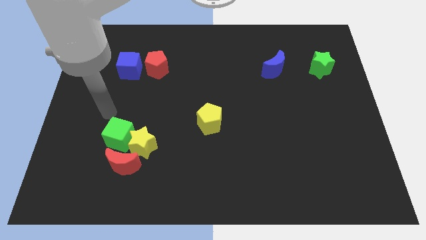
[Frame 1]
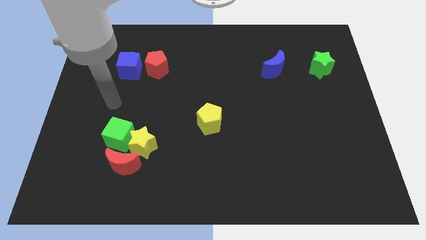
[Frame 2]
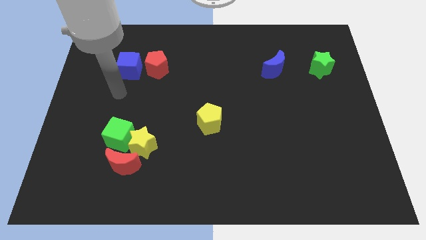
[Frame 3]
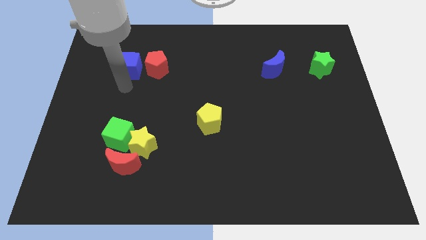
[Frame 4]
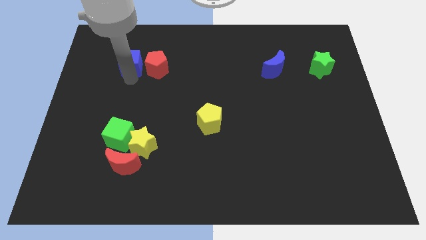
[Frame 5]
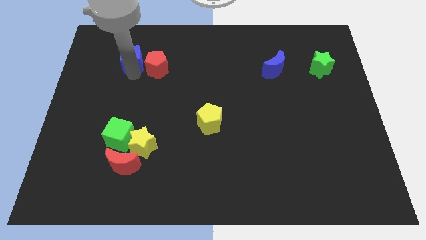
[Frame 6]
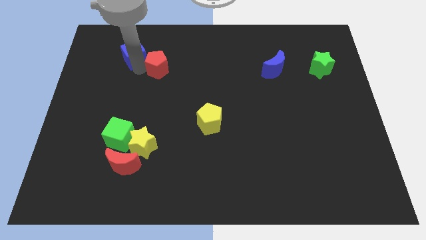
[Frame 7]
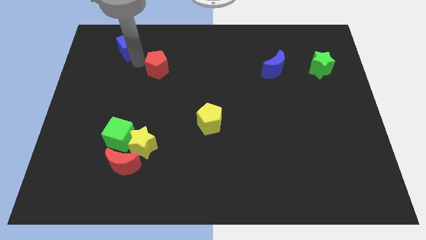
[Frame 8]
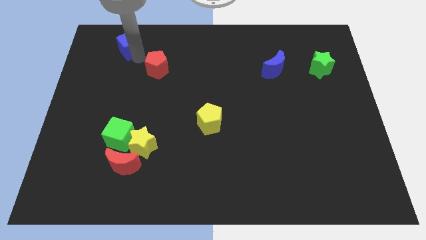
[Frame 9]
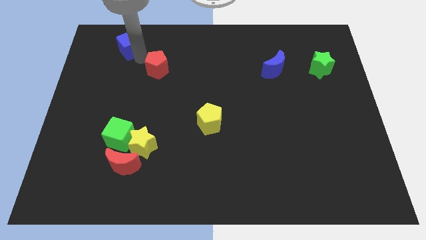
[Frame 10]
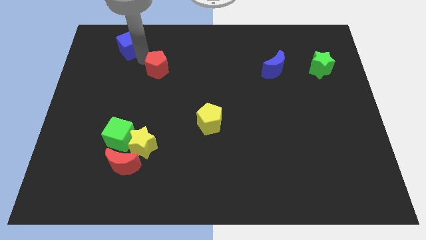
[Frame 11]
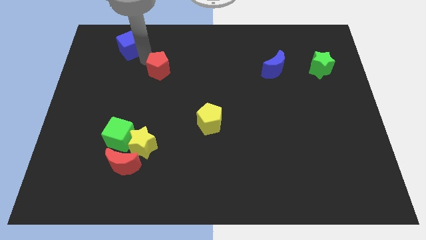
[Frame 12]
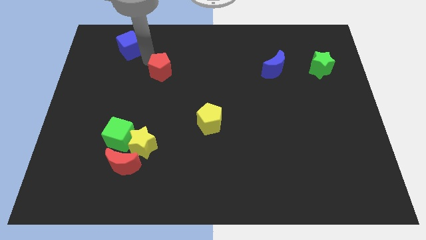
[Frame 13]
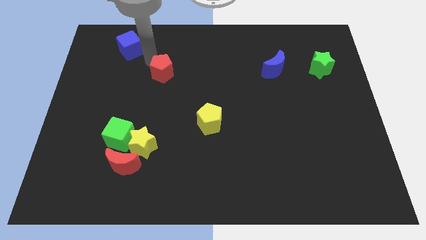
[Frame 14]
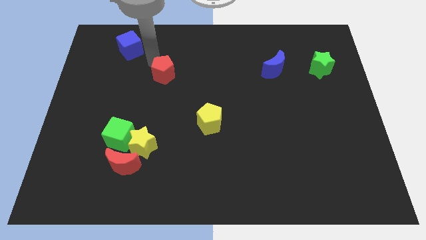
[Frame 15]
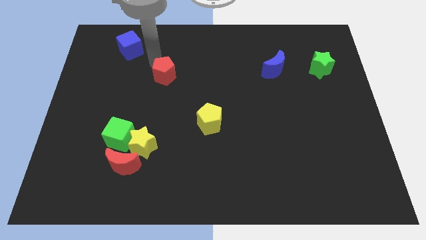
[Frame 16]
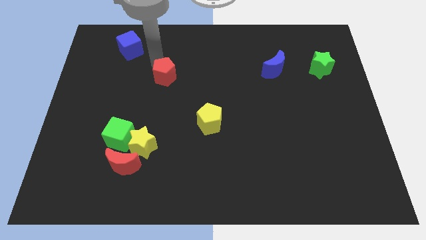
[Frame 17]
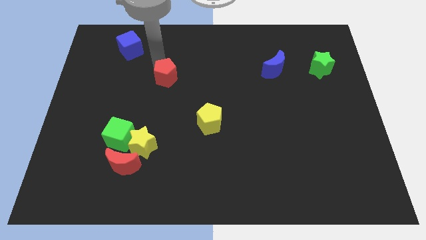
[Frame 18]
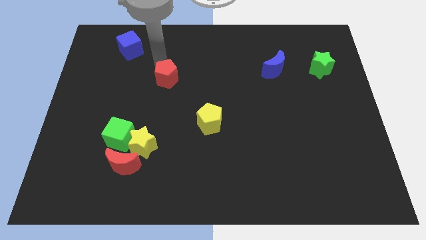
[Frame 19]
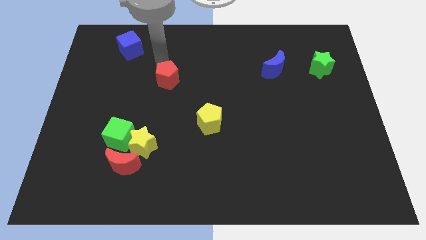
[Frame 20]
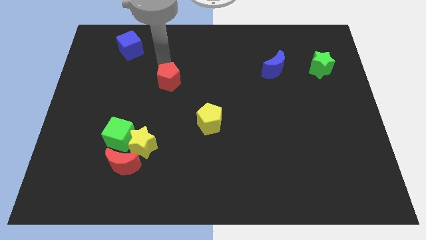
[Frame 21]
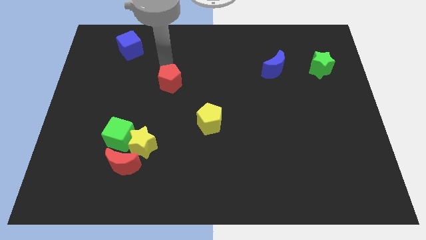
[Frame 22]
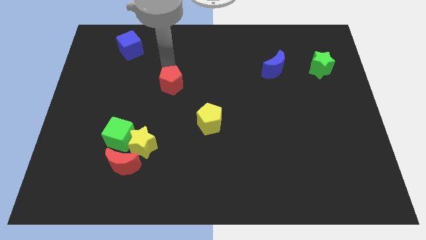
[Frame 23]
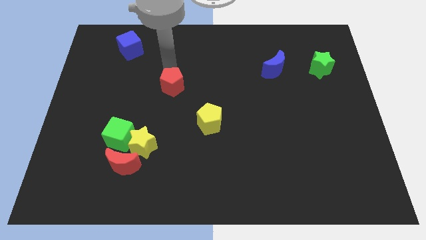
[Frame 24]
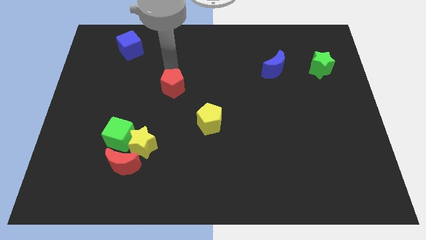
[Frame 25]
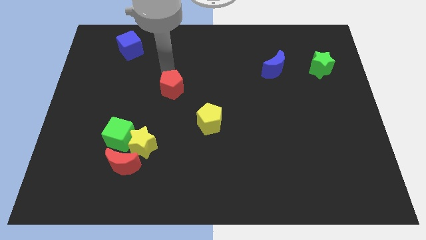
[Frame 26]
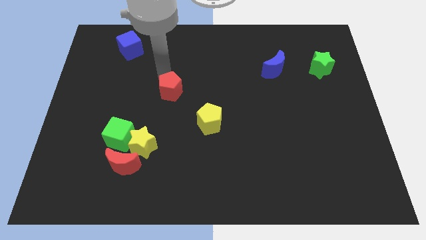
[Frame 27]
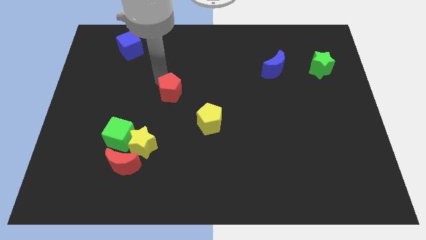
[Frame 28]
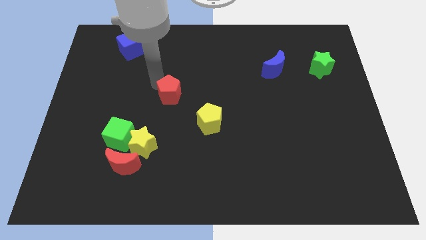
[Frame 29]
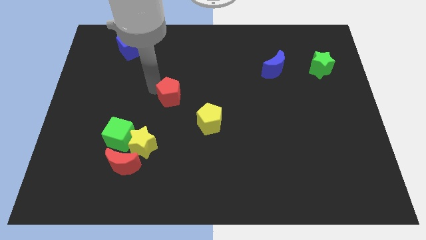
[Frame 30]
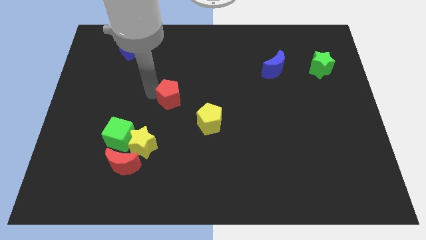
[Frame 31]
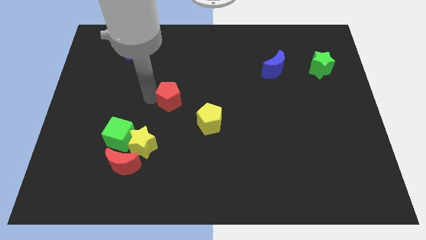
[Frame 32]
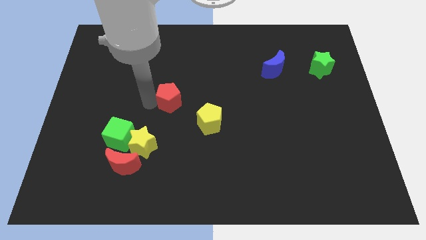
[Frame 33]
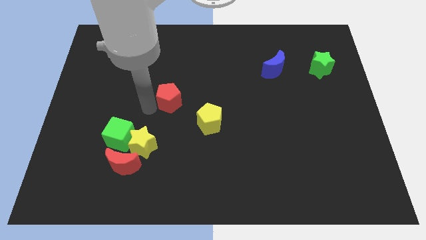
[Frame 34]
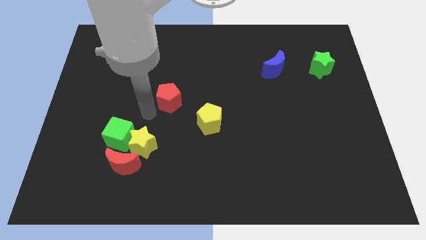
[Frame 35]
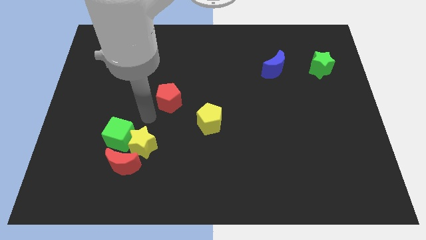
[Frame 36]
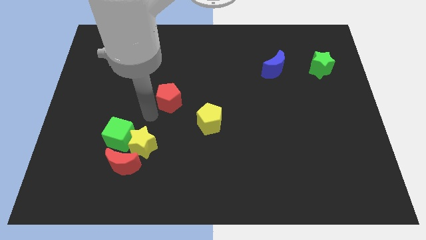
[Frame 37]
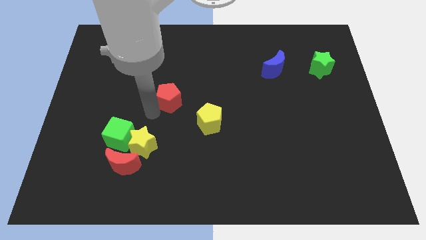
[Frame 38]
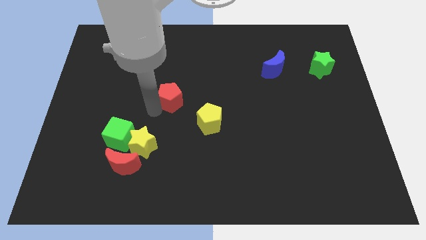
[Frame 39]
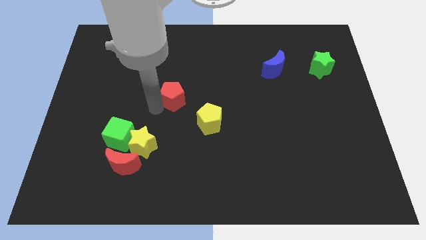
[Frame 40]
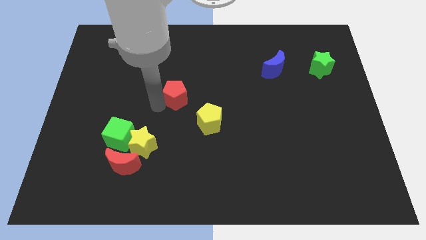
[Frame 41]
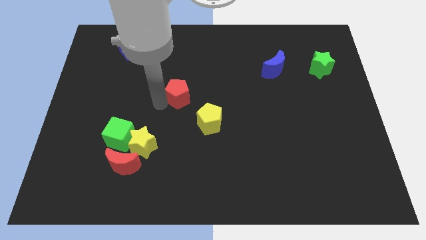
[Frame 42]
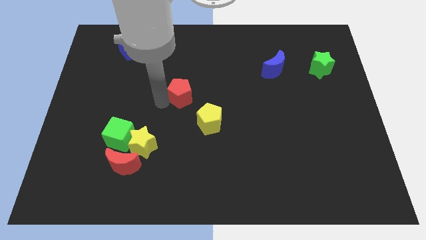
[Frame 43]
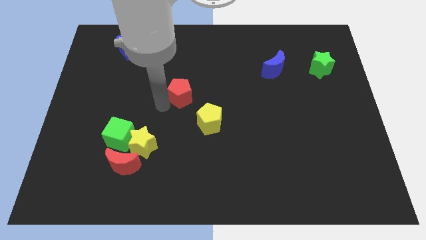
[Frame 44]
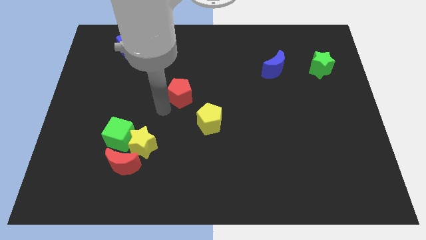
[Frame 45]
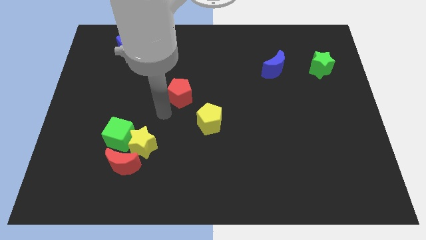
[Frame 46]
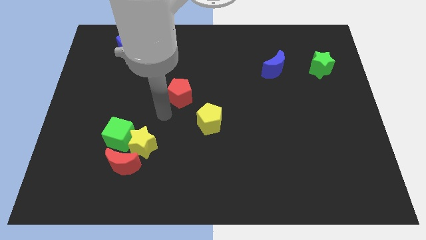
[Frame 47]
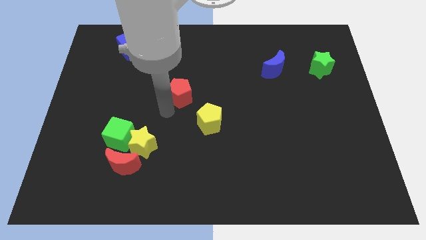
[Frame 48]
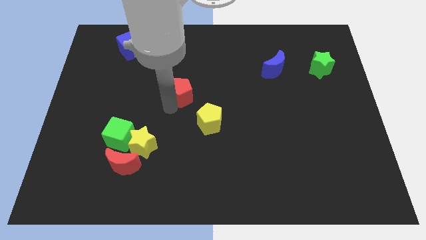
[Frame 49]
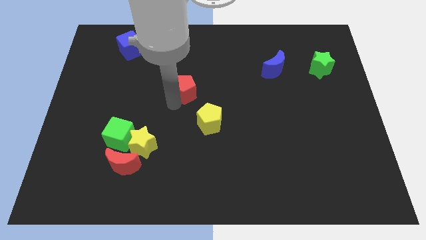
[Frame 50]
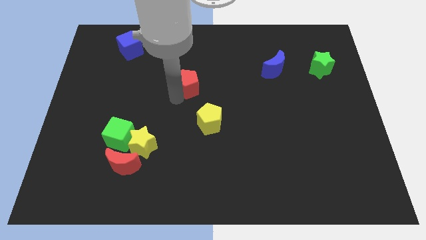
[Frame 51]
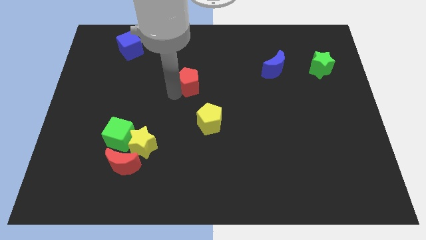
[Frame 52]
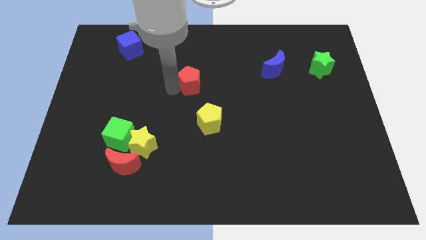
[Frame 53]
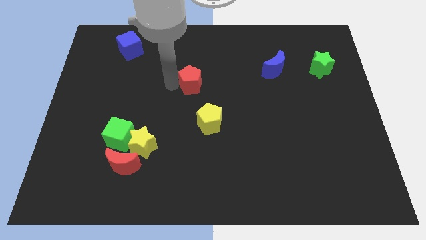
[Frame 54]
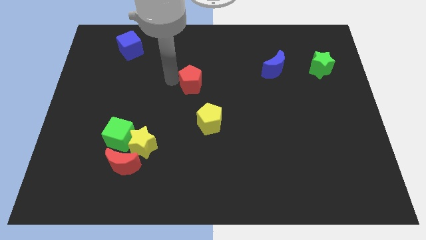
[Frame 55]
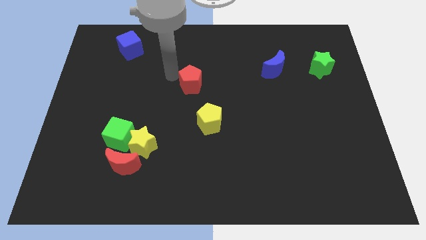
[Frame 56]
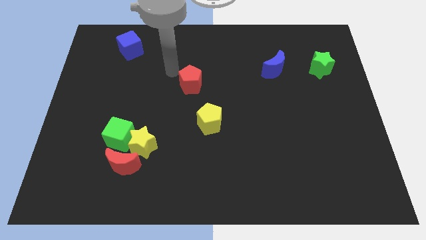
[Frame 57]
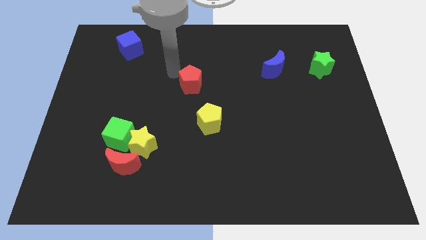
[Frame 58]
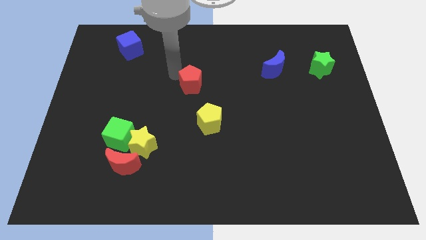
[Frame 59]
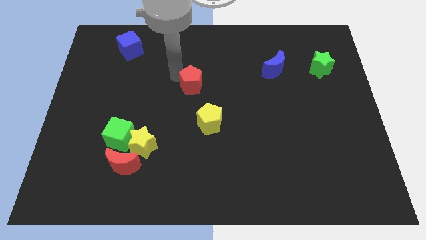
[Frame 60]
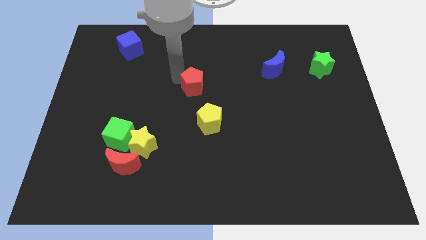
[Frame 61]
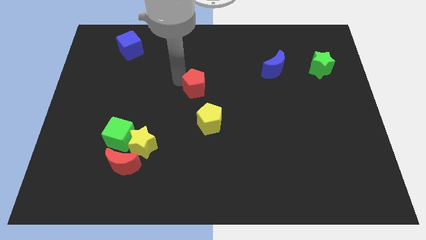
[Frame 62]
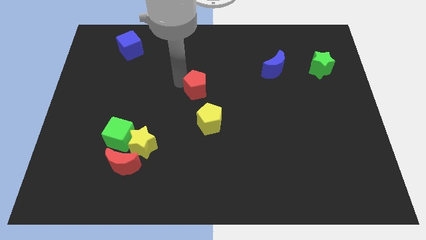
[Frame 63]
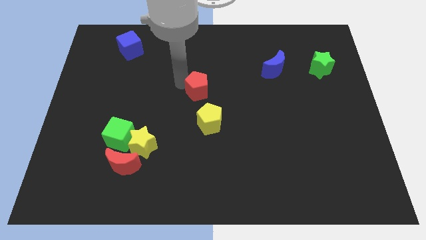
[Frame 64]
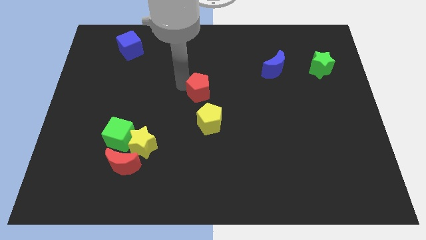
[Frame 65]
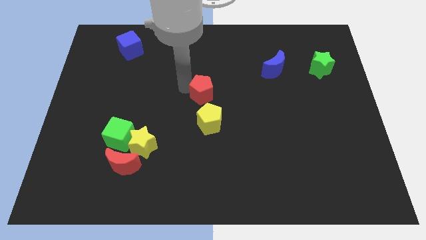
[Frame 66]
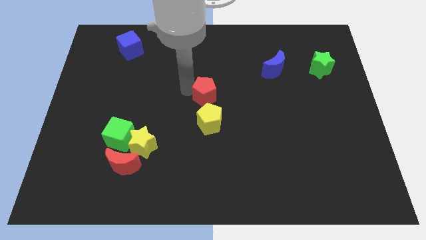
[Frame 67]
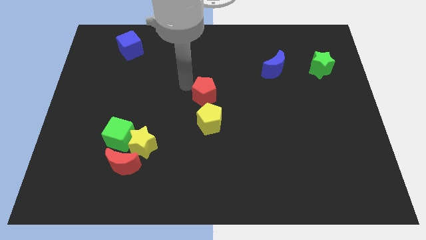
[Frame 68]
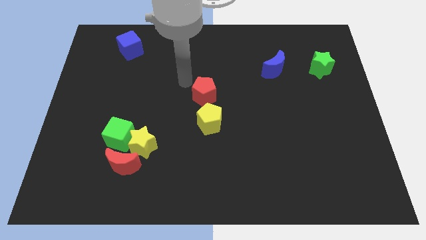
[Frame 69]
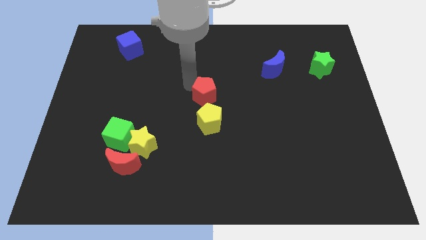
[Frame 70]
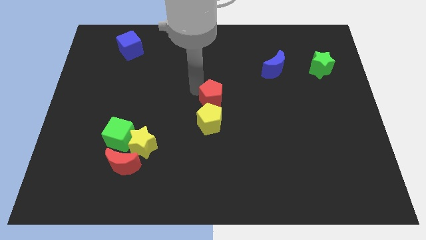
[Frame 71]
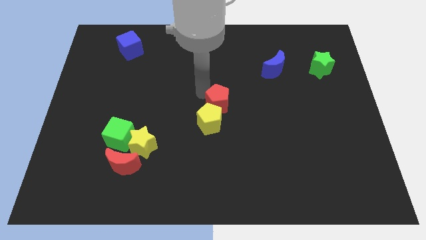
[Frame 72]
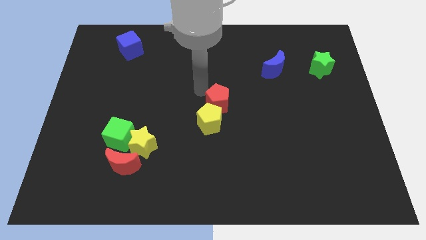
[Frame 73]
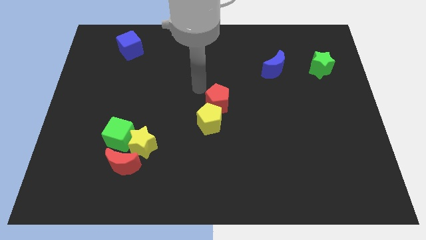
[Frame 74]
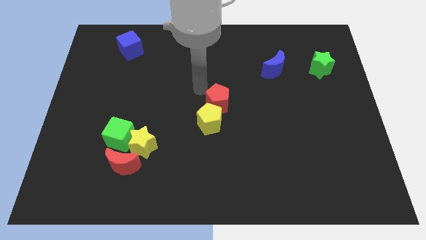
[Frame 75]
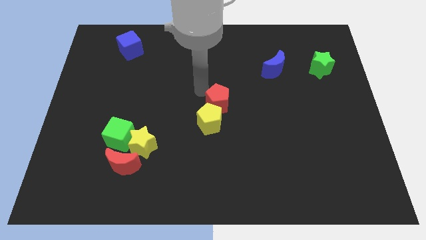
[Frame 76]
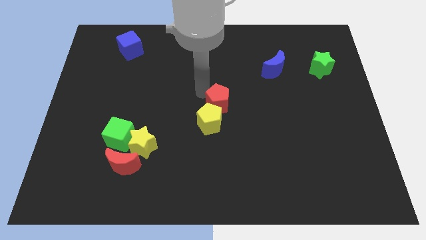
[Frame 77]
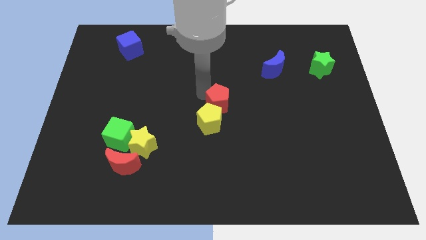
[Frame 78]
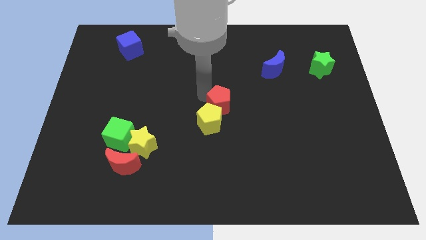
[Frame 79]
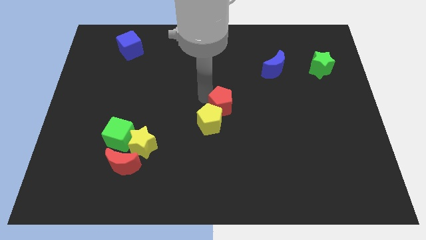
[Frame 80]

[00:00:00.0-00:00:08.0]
push the red pentagon downwards and then right
